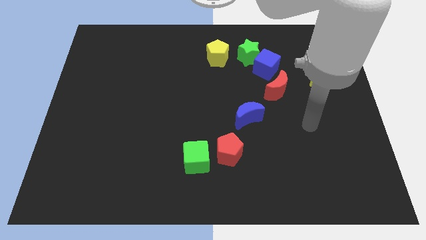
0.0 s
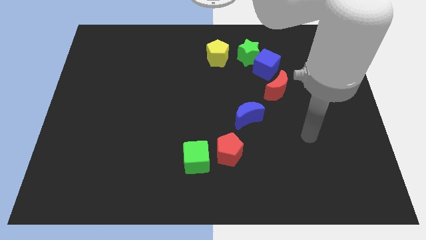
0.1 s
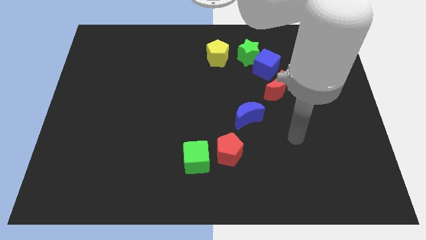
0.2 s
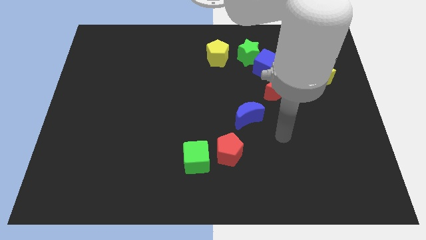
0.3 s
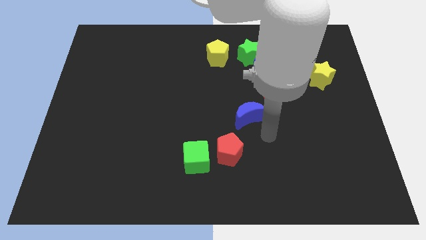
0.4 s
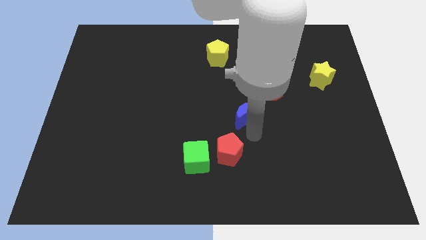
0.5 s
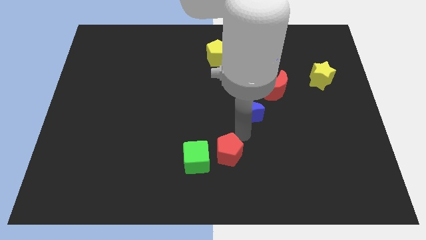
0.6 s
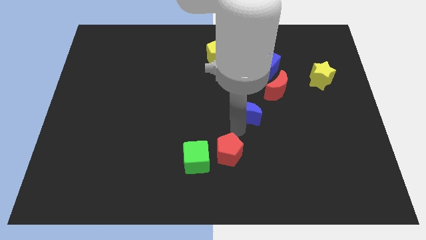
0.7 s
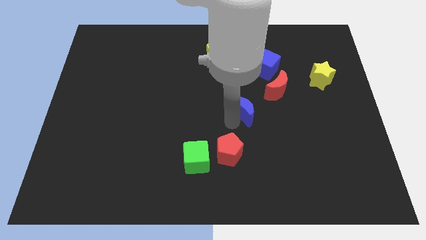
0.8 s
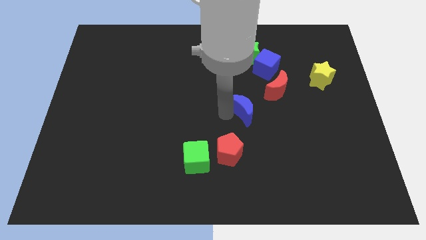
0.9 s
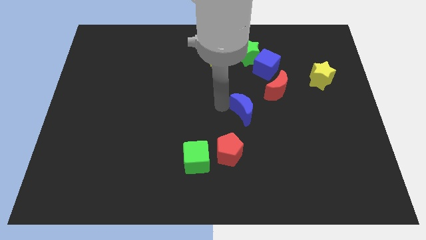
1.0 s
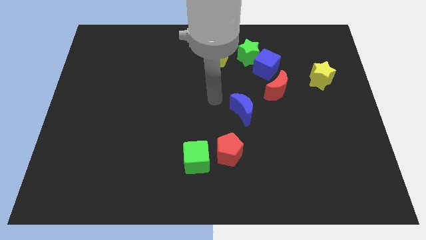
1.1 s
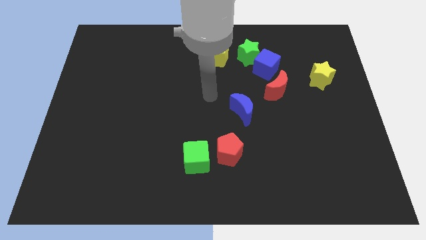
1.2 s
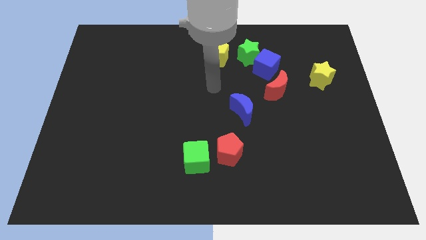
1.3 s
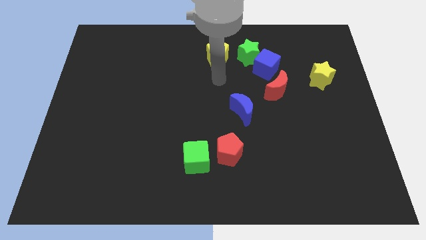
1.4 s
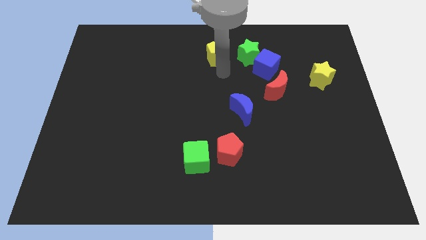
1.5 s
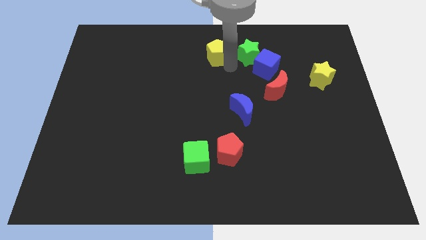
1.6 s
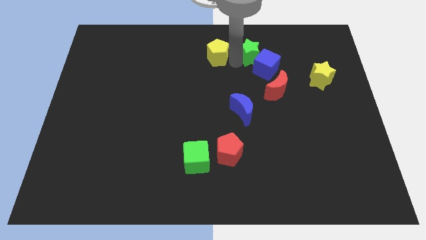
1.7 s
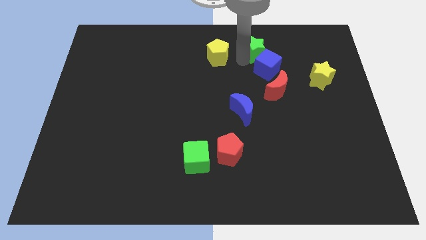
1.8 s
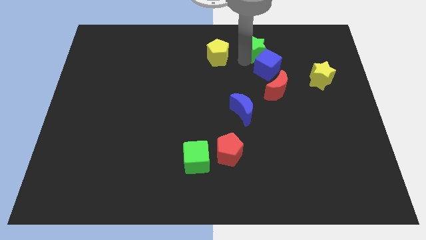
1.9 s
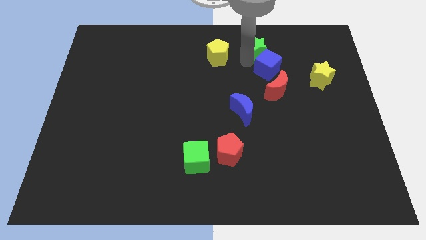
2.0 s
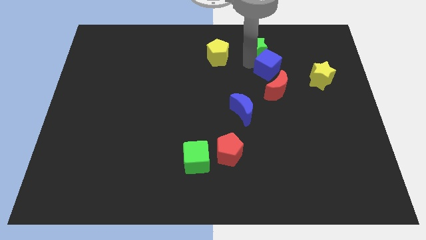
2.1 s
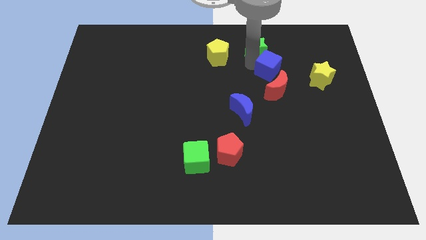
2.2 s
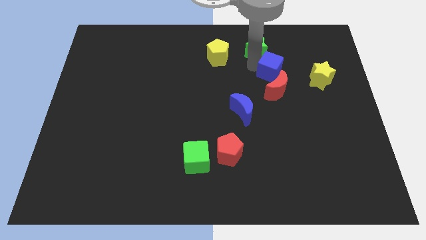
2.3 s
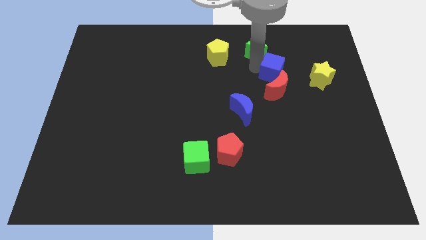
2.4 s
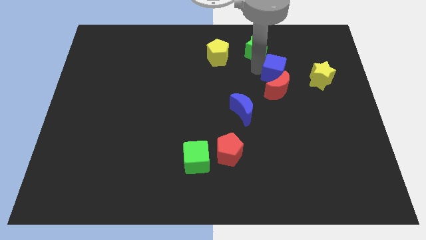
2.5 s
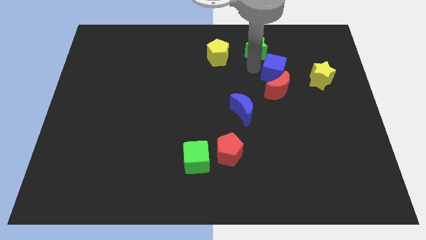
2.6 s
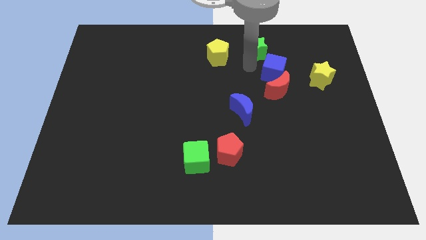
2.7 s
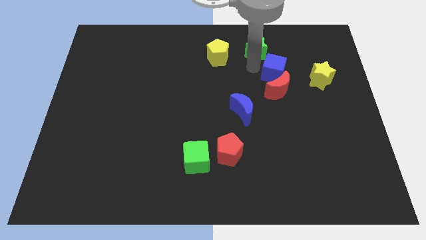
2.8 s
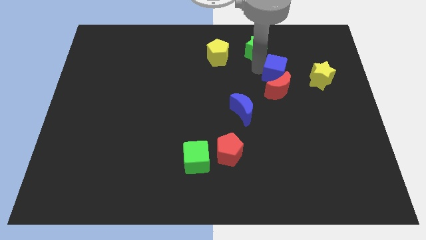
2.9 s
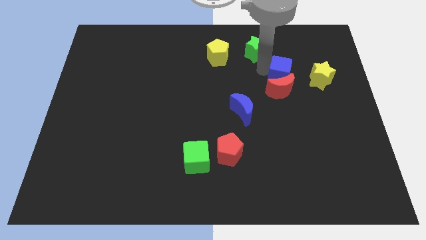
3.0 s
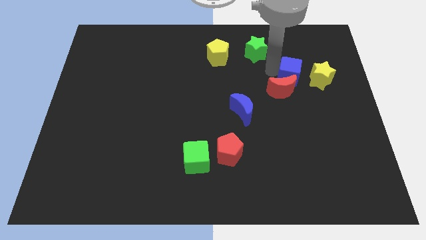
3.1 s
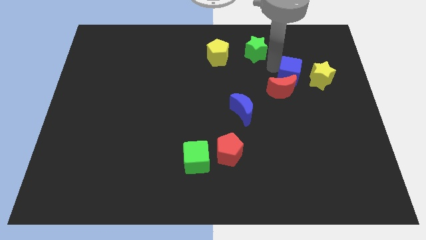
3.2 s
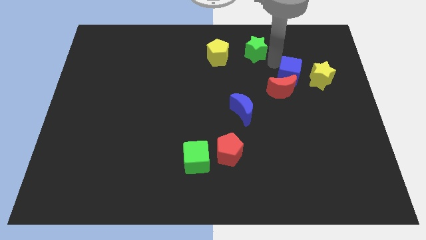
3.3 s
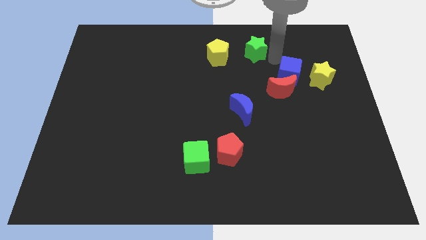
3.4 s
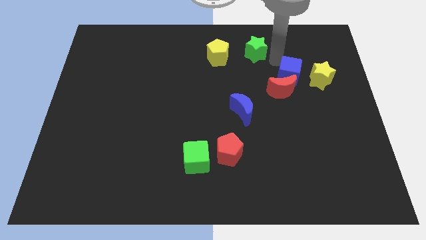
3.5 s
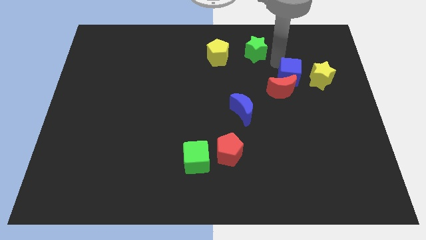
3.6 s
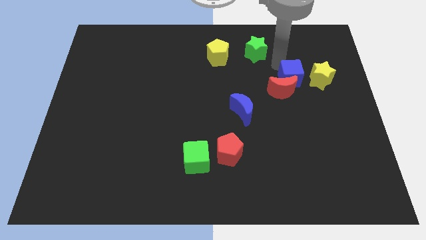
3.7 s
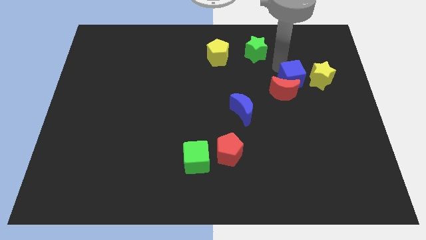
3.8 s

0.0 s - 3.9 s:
push the blue cube down and then to the right slightly

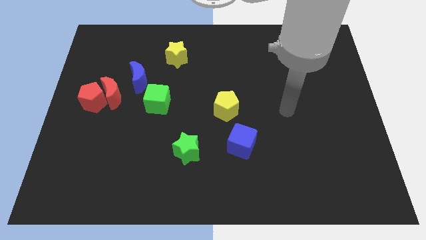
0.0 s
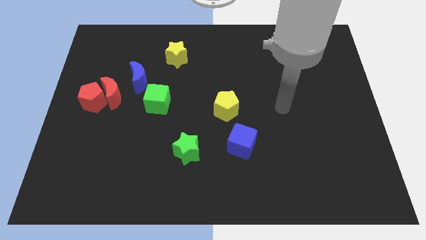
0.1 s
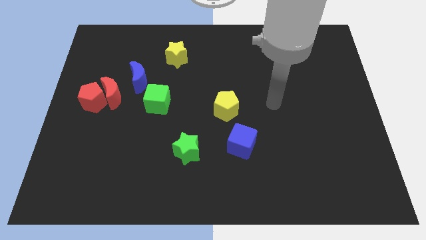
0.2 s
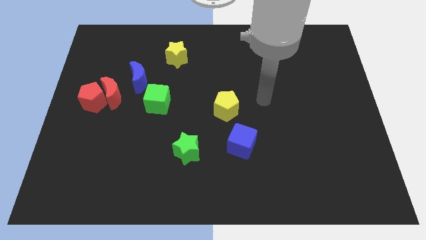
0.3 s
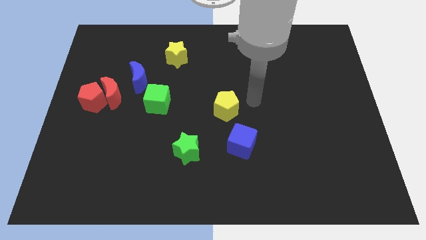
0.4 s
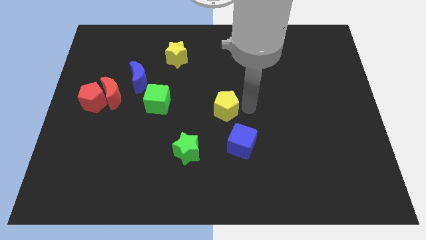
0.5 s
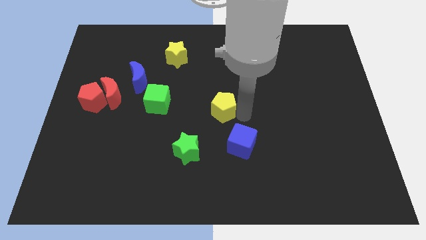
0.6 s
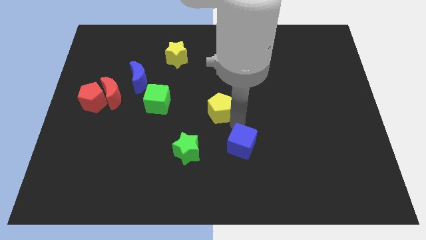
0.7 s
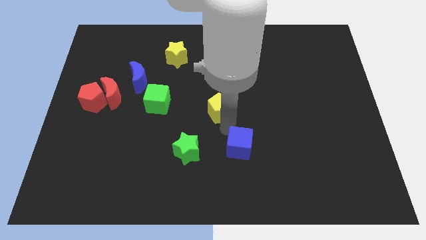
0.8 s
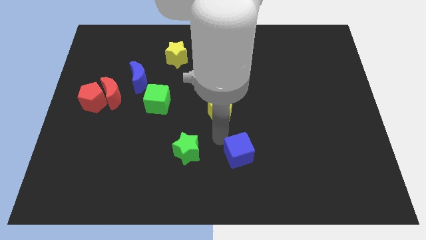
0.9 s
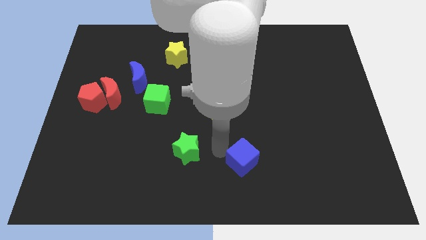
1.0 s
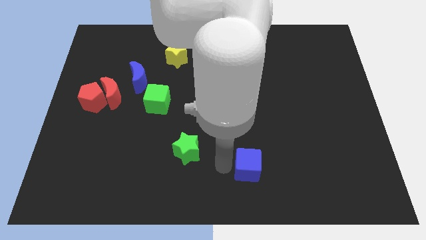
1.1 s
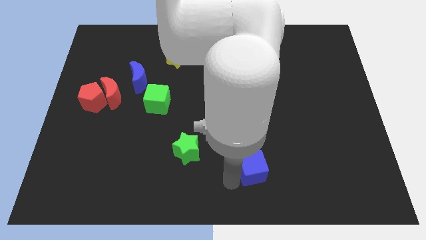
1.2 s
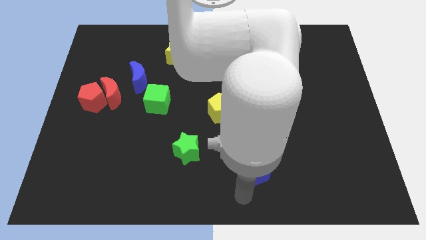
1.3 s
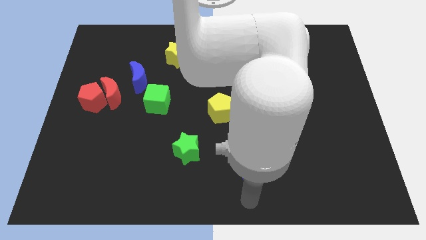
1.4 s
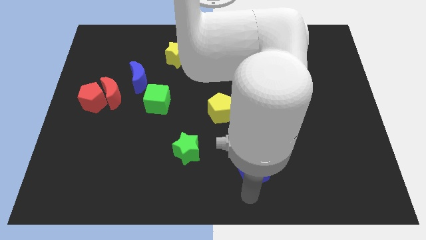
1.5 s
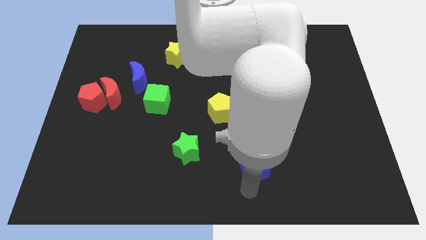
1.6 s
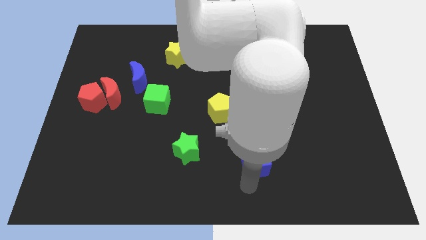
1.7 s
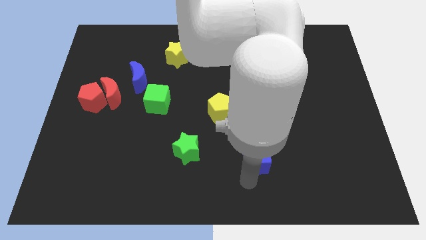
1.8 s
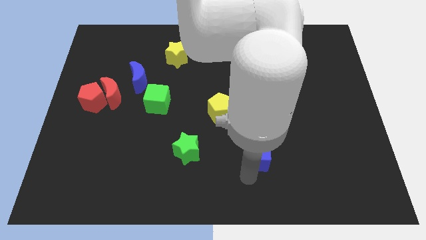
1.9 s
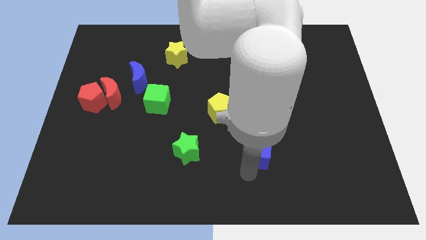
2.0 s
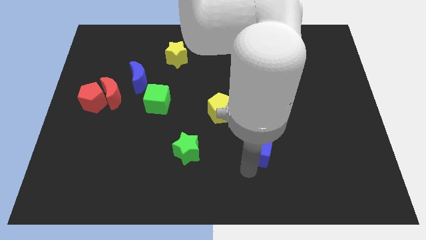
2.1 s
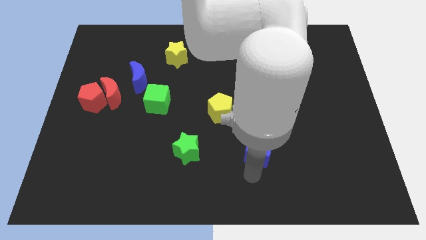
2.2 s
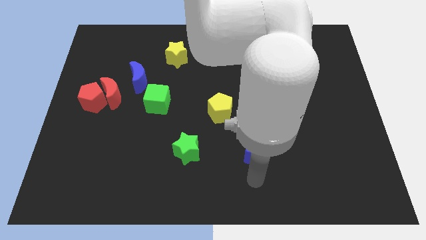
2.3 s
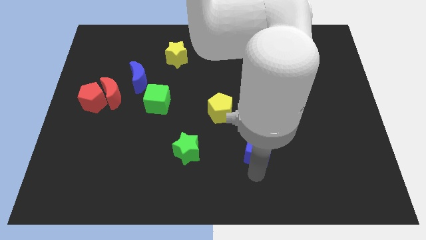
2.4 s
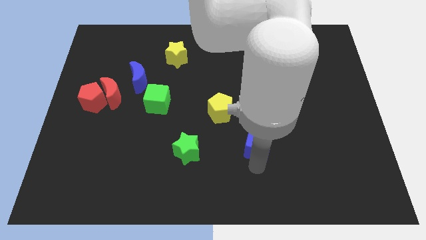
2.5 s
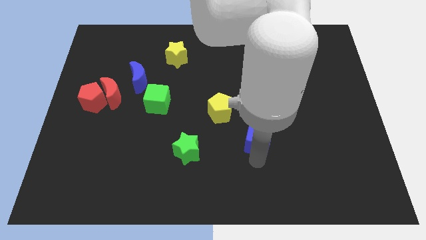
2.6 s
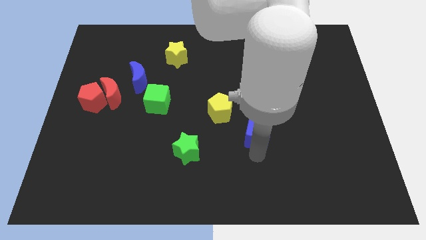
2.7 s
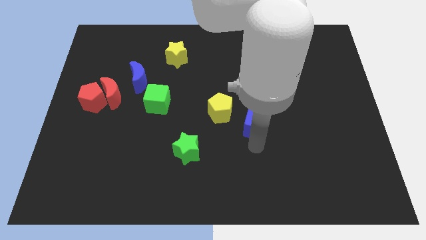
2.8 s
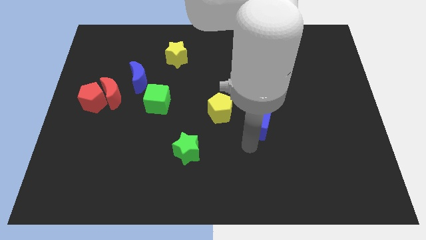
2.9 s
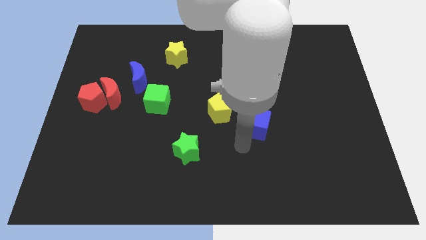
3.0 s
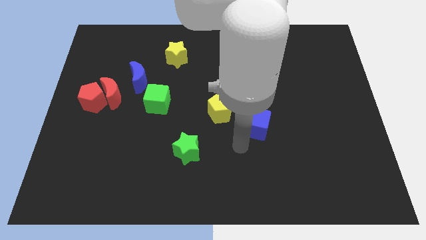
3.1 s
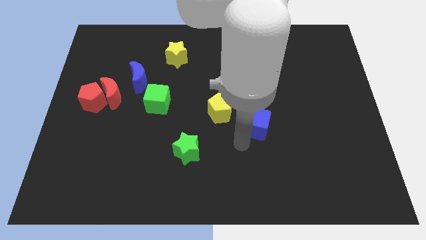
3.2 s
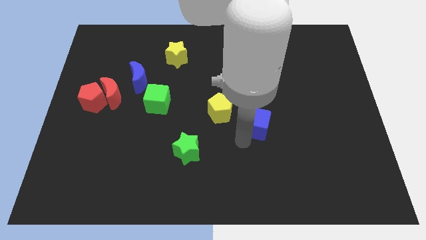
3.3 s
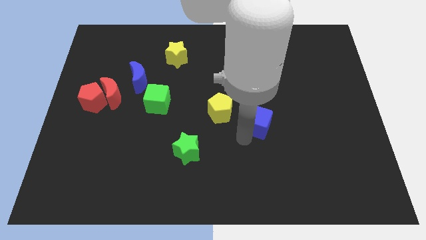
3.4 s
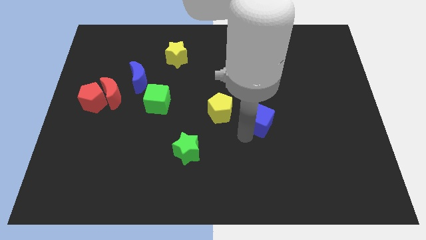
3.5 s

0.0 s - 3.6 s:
slide the blue cube somewhat up and to the right

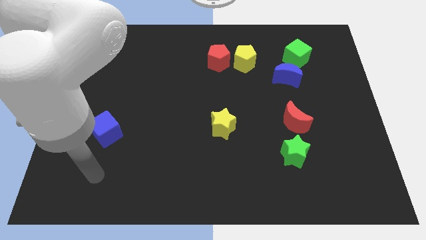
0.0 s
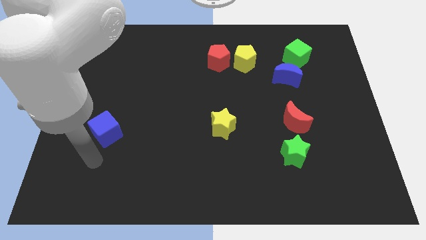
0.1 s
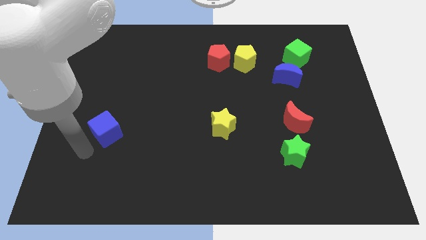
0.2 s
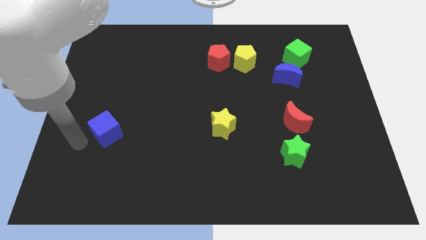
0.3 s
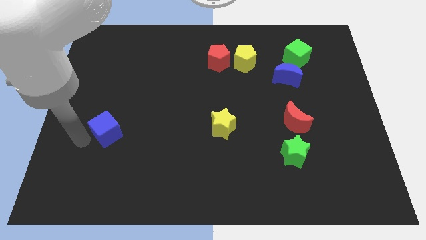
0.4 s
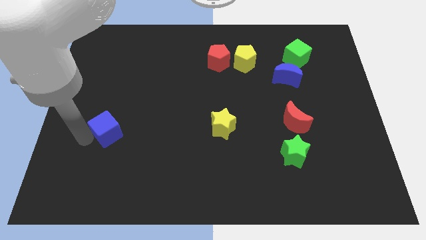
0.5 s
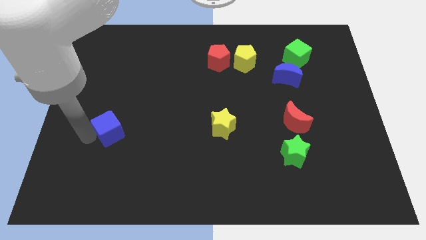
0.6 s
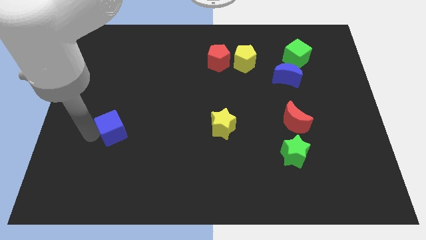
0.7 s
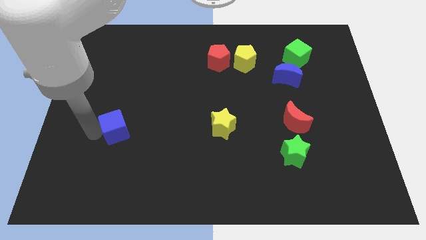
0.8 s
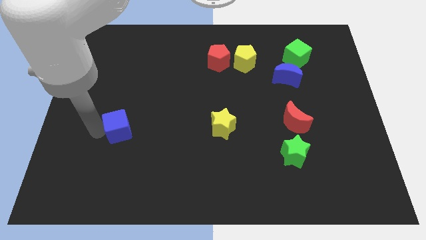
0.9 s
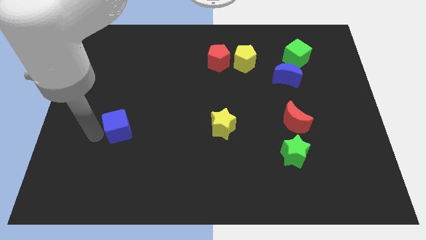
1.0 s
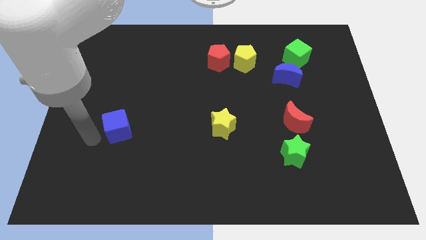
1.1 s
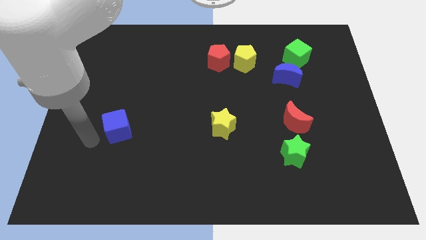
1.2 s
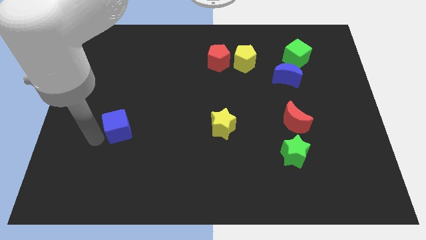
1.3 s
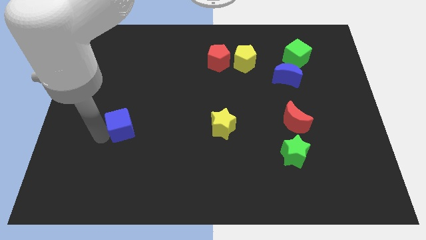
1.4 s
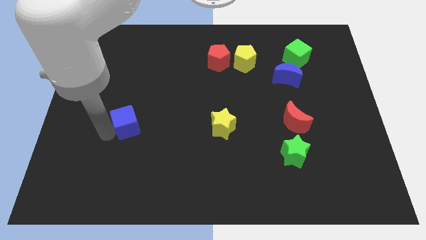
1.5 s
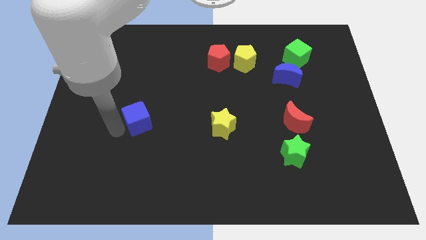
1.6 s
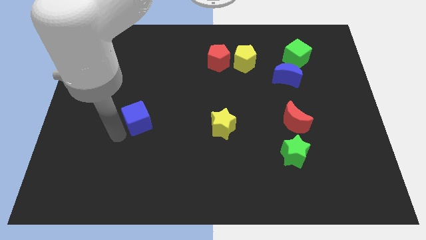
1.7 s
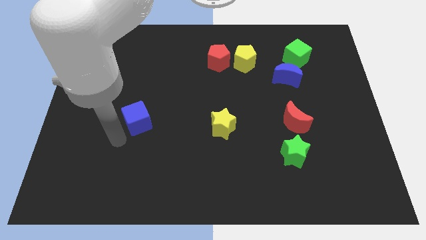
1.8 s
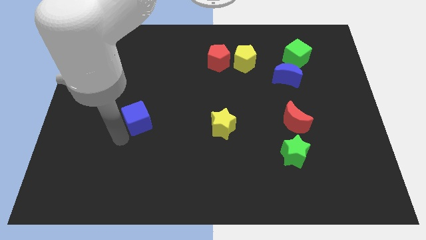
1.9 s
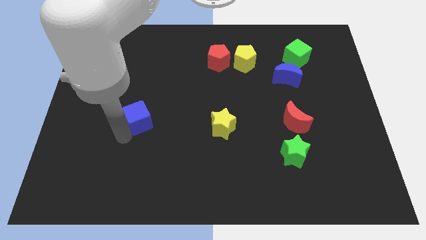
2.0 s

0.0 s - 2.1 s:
move the blue cube upwards and to the right somewhat
